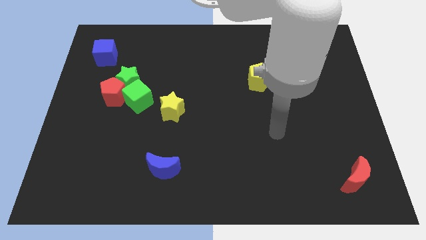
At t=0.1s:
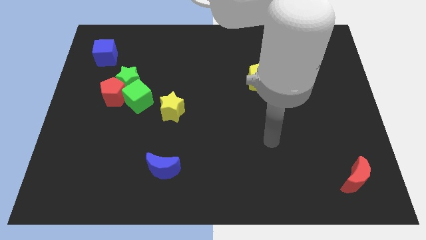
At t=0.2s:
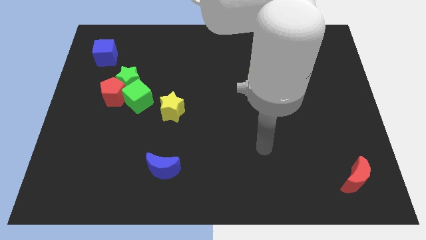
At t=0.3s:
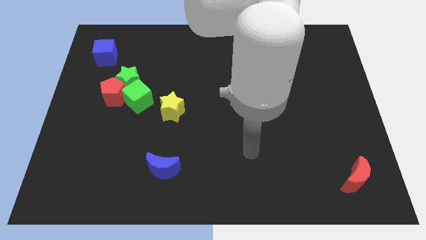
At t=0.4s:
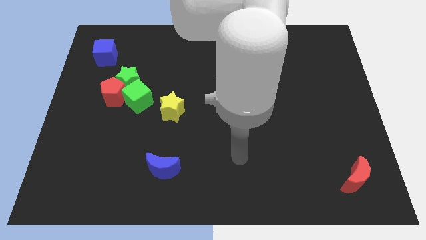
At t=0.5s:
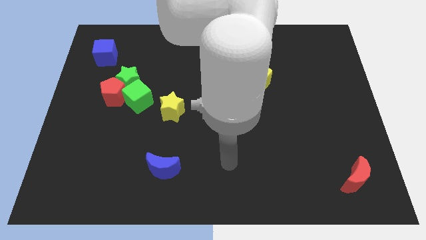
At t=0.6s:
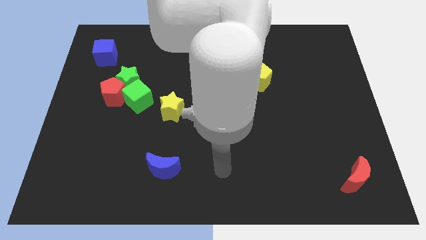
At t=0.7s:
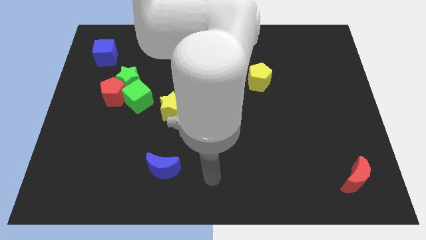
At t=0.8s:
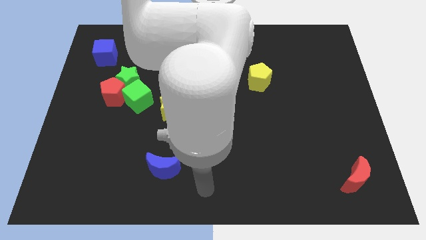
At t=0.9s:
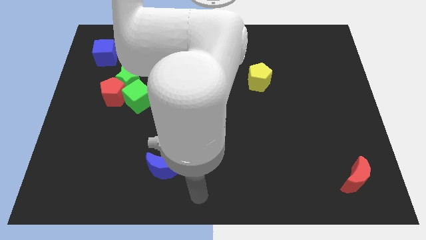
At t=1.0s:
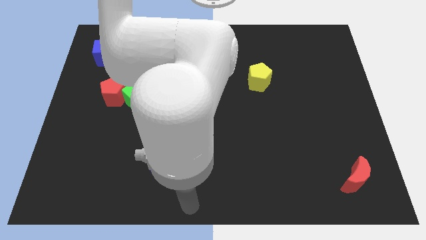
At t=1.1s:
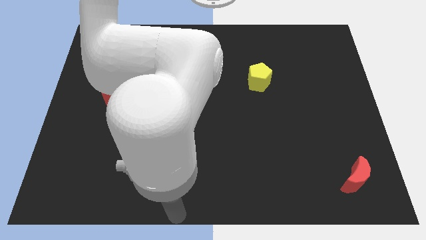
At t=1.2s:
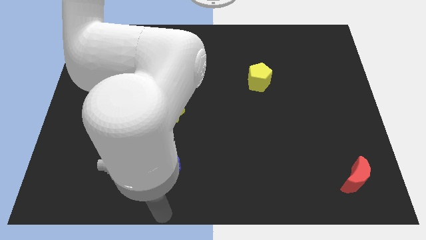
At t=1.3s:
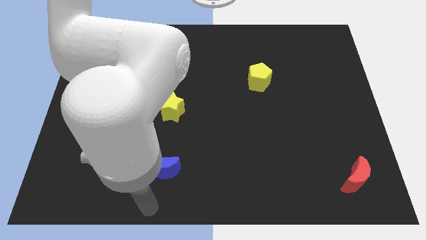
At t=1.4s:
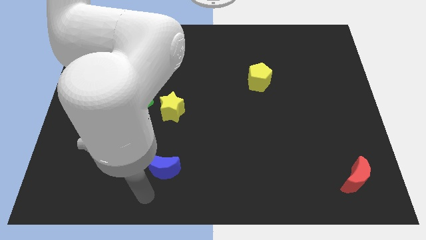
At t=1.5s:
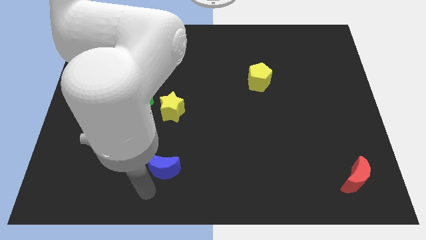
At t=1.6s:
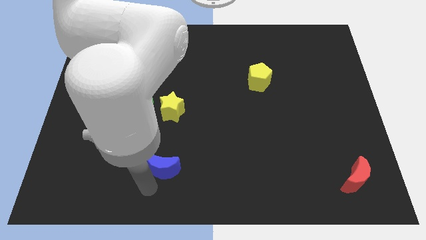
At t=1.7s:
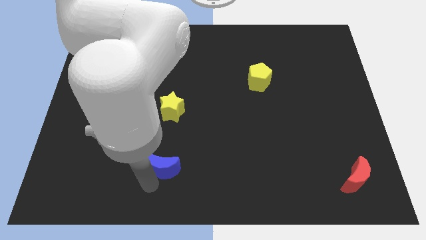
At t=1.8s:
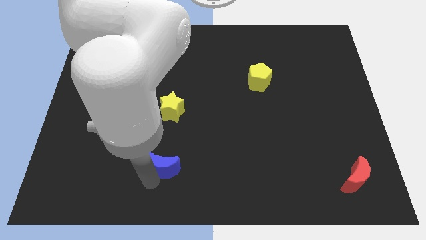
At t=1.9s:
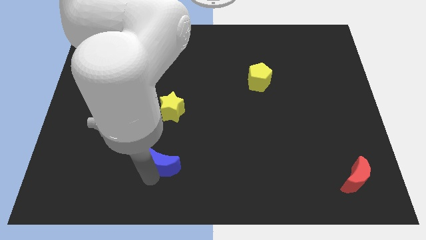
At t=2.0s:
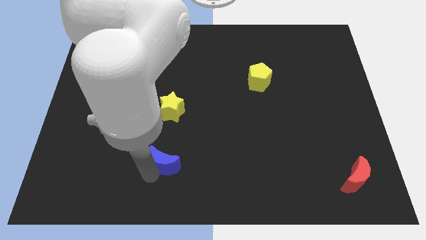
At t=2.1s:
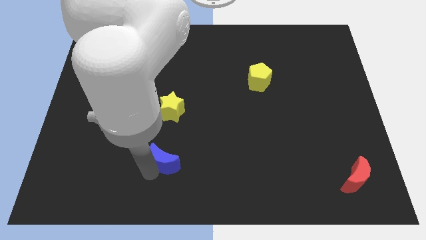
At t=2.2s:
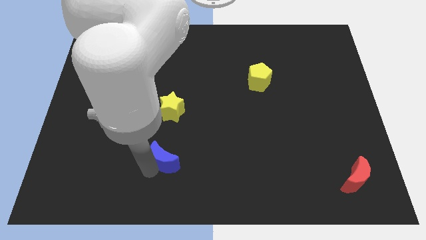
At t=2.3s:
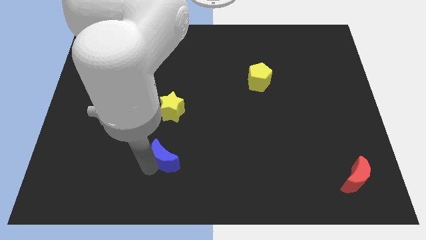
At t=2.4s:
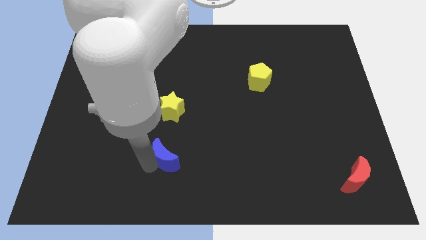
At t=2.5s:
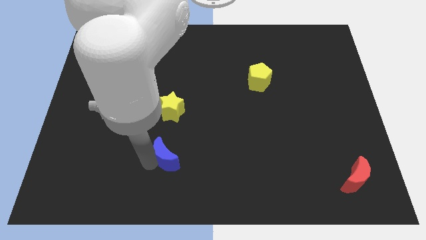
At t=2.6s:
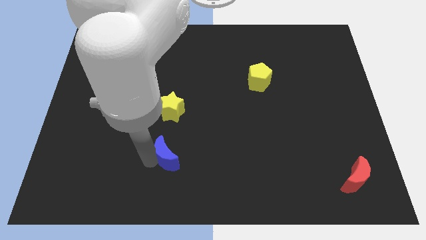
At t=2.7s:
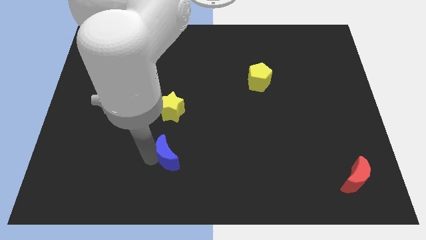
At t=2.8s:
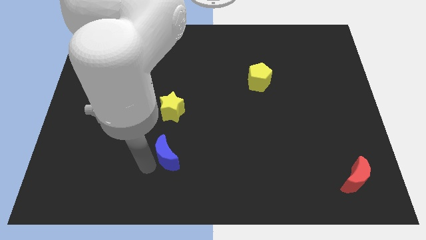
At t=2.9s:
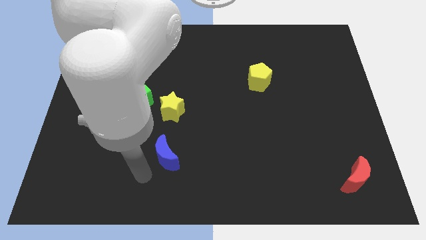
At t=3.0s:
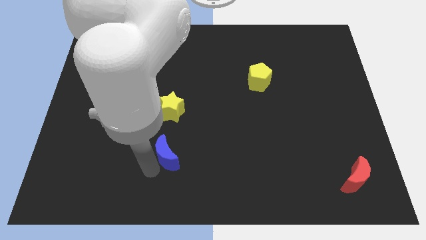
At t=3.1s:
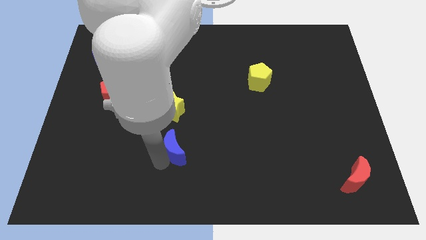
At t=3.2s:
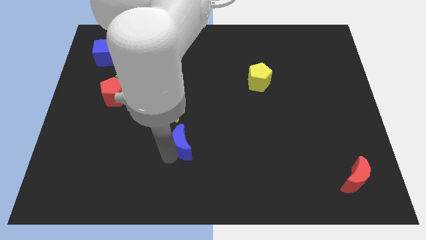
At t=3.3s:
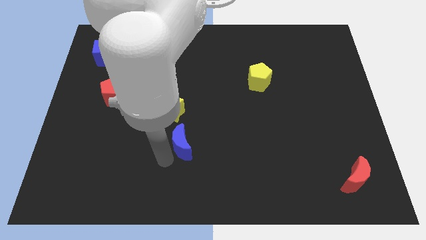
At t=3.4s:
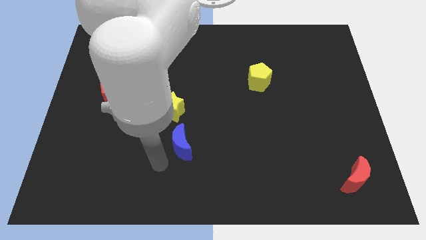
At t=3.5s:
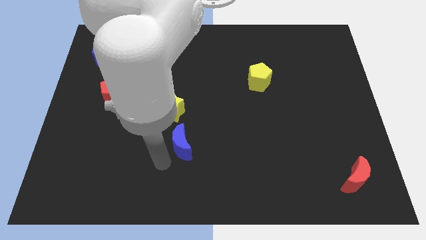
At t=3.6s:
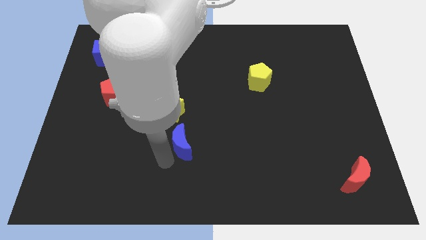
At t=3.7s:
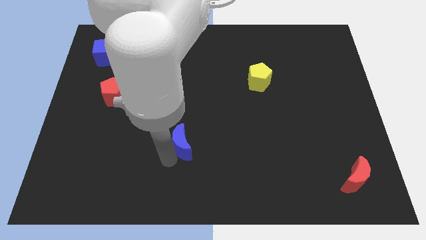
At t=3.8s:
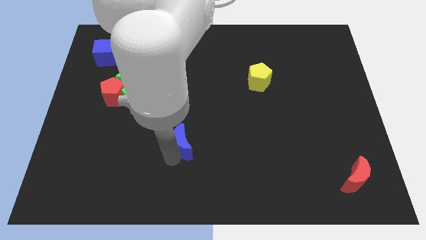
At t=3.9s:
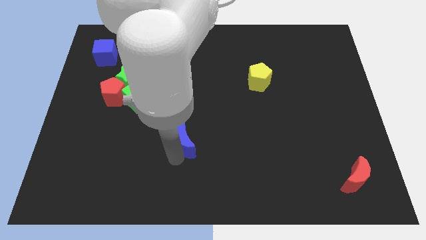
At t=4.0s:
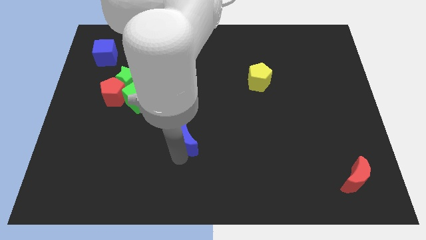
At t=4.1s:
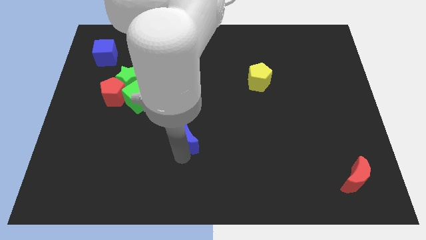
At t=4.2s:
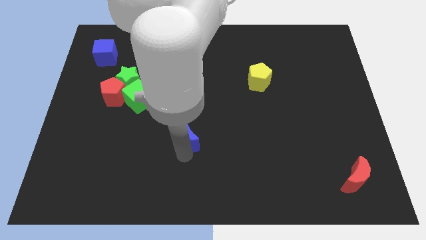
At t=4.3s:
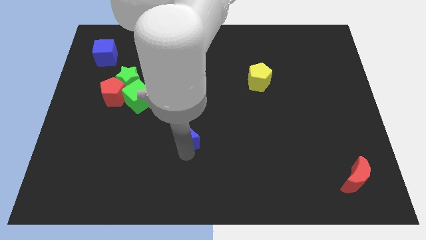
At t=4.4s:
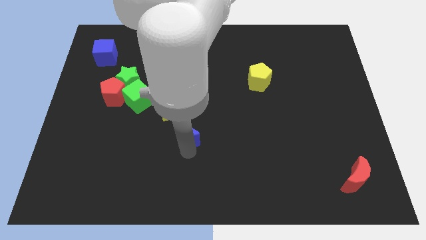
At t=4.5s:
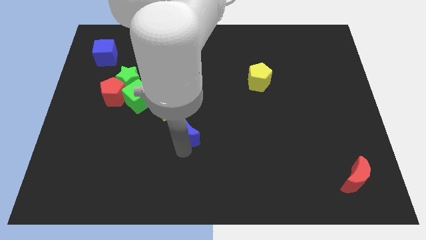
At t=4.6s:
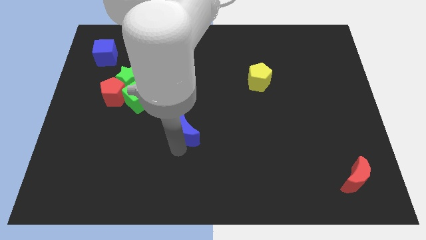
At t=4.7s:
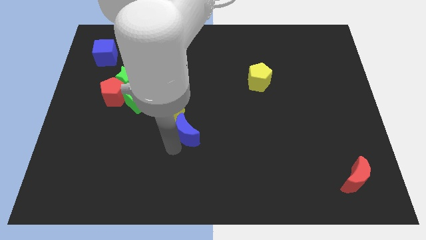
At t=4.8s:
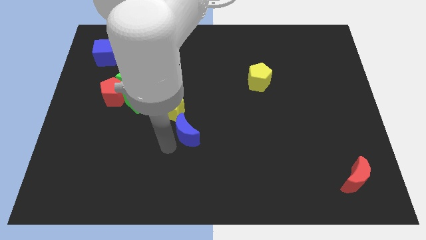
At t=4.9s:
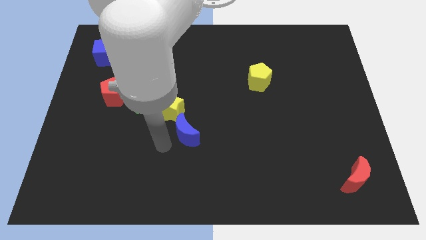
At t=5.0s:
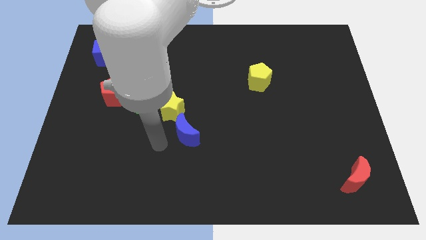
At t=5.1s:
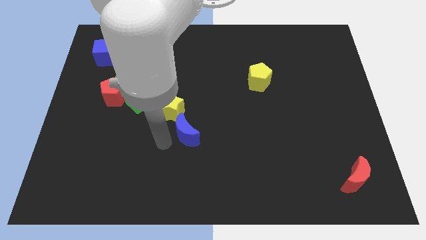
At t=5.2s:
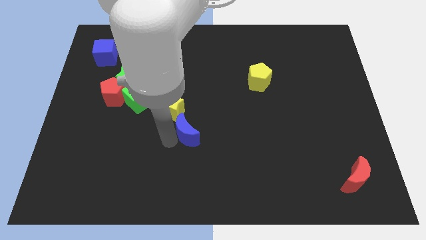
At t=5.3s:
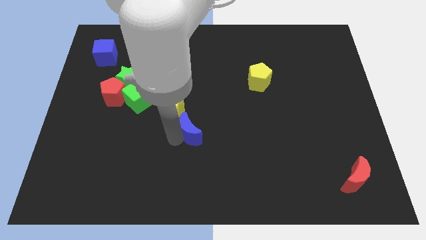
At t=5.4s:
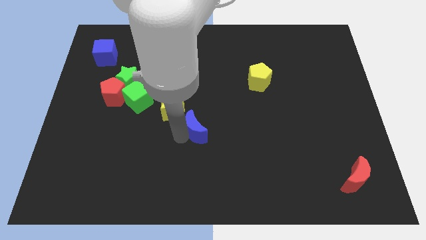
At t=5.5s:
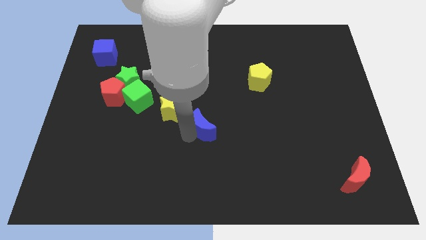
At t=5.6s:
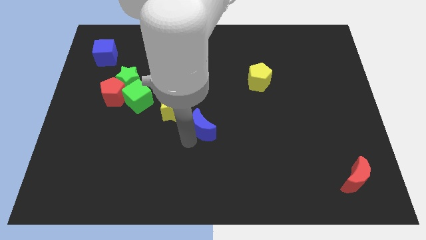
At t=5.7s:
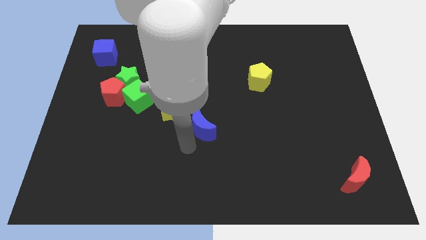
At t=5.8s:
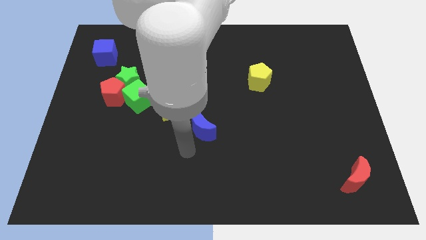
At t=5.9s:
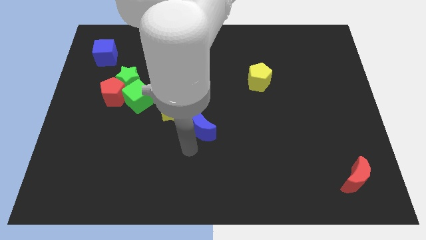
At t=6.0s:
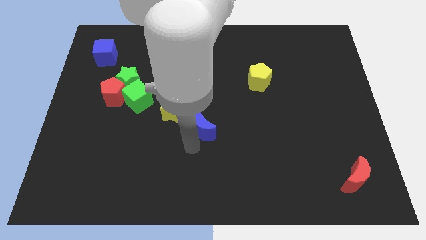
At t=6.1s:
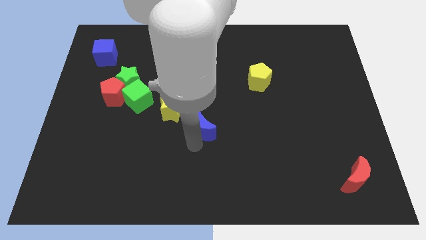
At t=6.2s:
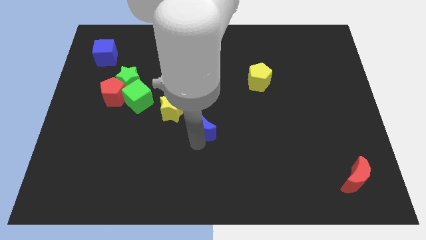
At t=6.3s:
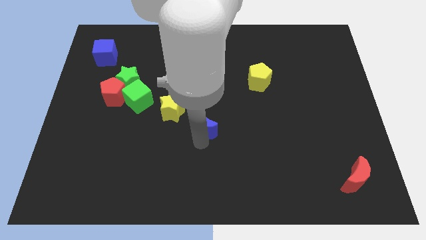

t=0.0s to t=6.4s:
slide the blue moon just right of the yellow star

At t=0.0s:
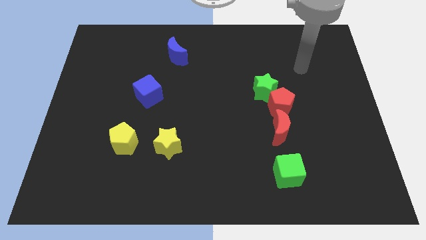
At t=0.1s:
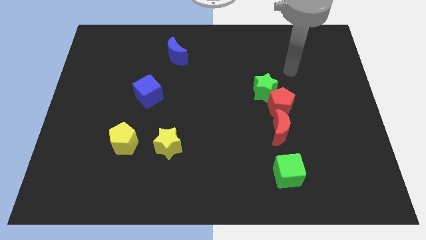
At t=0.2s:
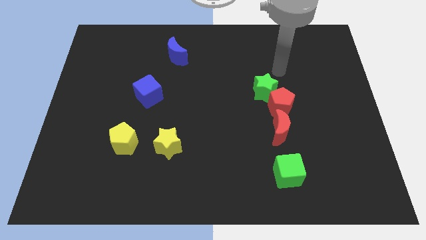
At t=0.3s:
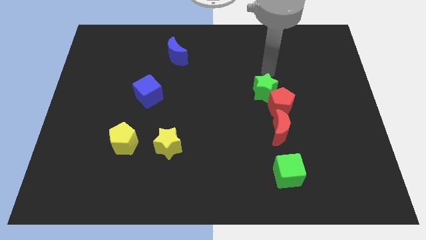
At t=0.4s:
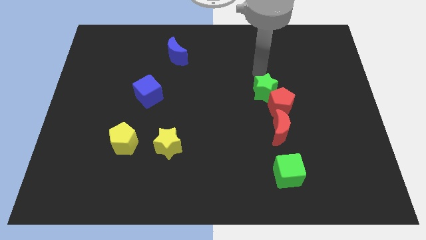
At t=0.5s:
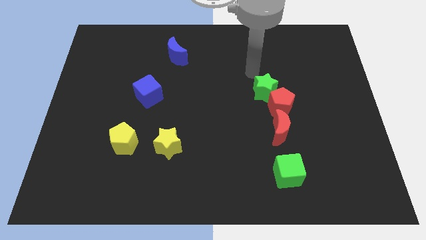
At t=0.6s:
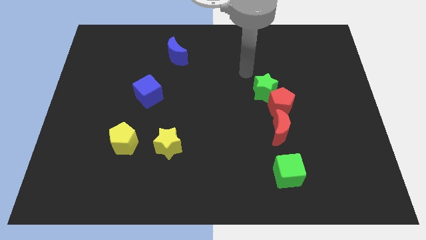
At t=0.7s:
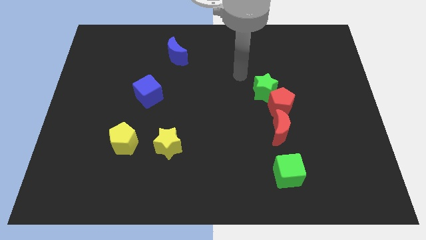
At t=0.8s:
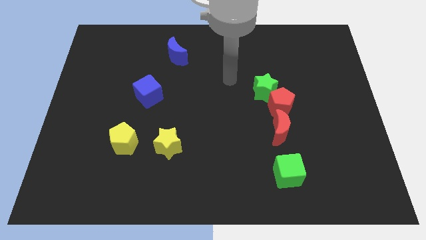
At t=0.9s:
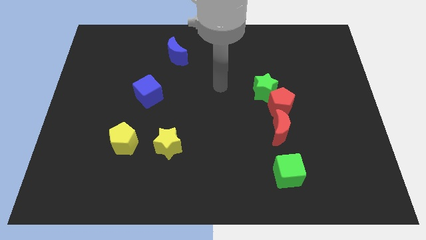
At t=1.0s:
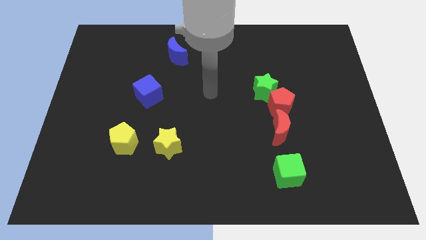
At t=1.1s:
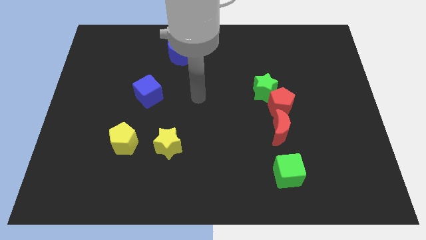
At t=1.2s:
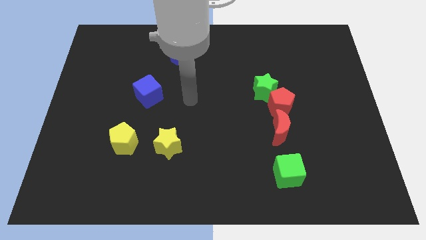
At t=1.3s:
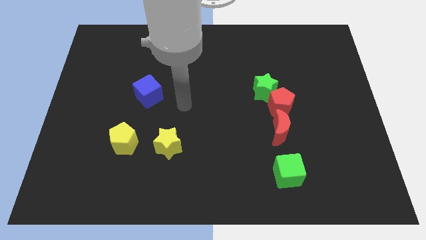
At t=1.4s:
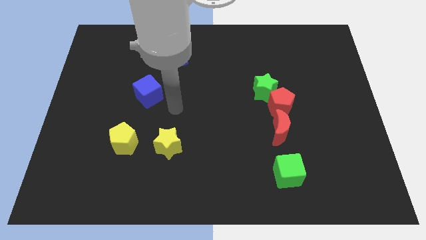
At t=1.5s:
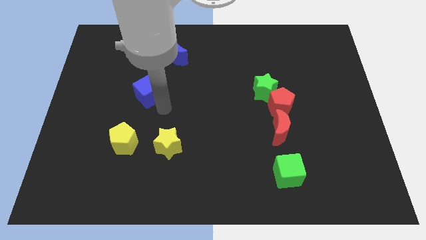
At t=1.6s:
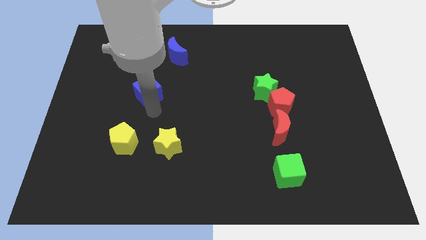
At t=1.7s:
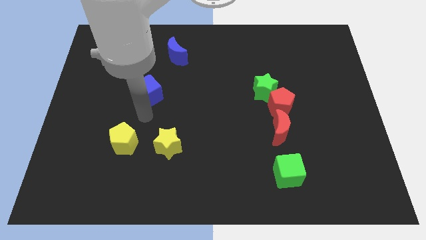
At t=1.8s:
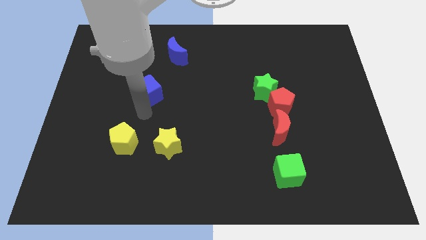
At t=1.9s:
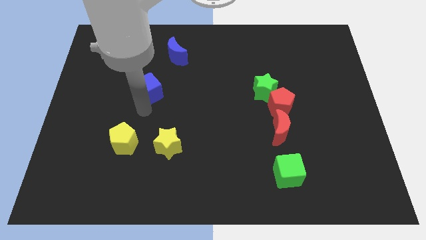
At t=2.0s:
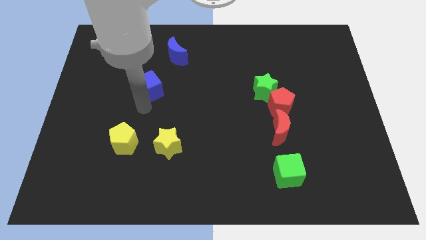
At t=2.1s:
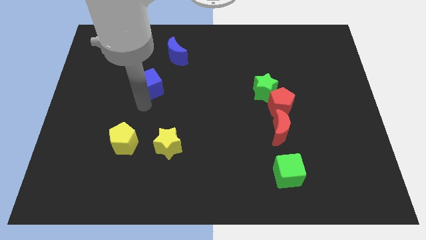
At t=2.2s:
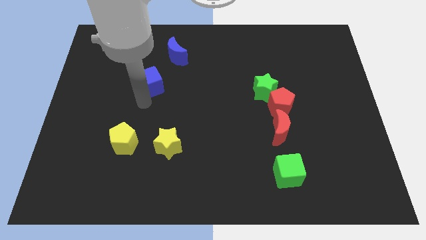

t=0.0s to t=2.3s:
push the blue cube diagonally down and to the left of the blue moon
